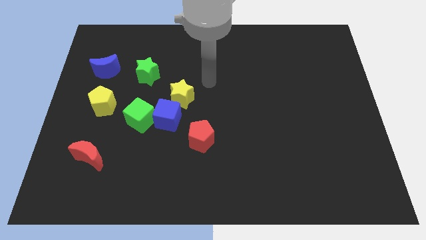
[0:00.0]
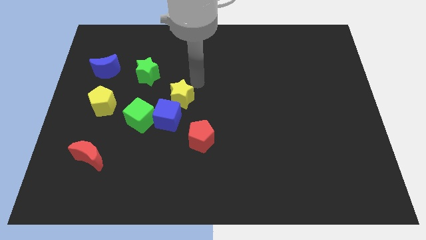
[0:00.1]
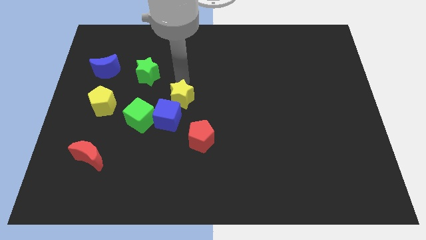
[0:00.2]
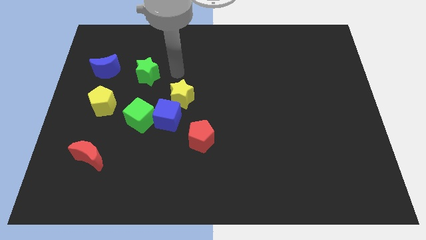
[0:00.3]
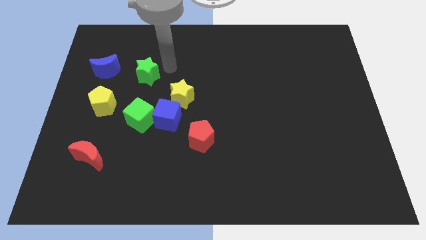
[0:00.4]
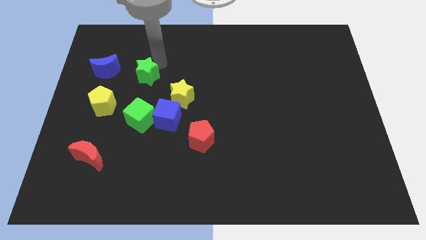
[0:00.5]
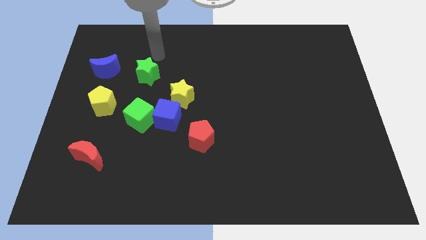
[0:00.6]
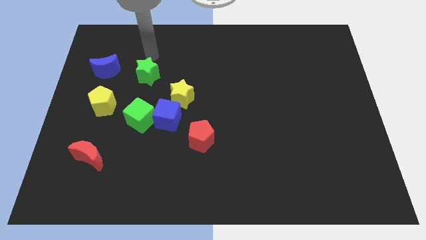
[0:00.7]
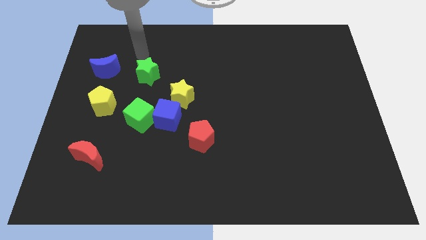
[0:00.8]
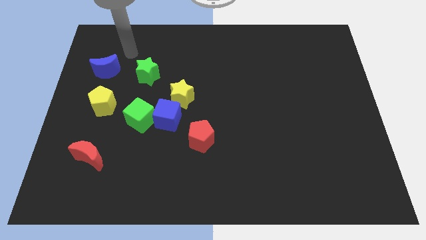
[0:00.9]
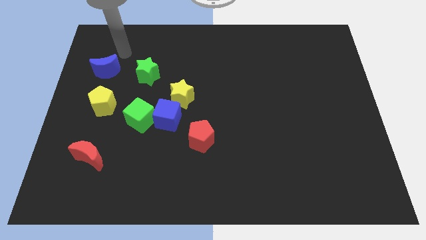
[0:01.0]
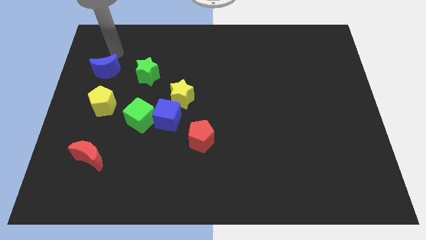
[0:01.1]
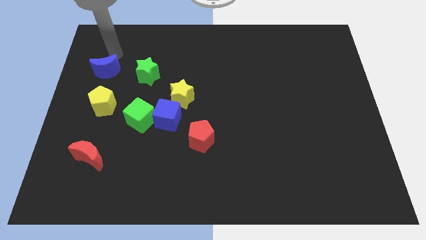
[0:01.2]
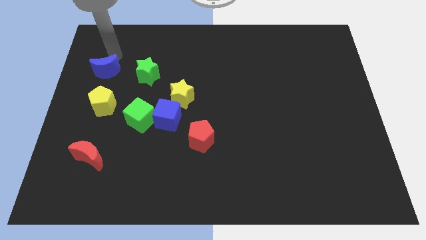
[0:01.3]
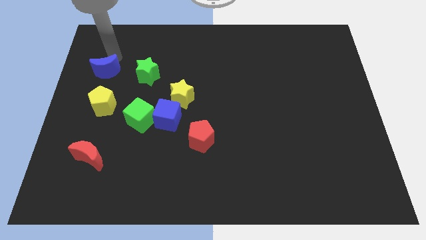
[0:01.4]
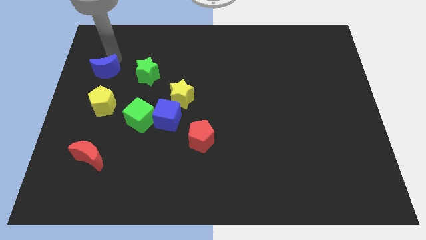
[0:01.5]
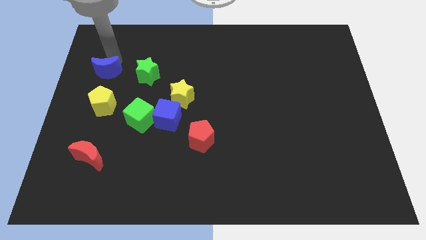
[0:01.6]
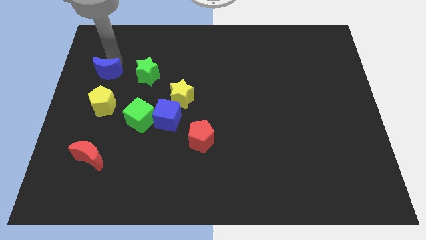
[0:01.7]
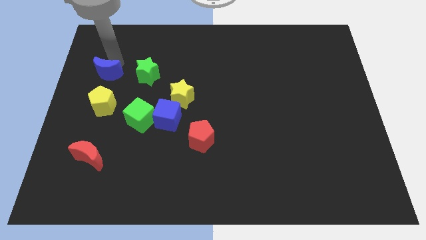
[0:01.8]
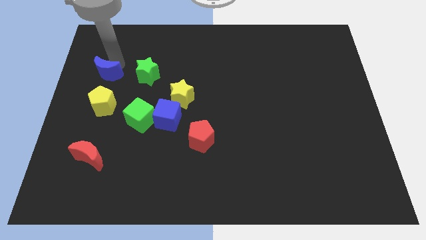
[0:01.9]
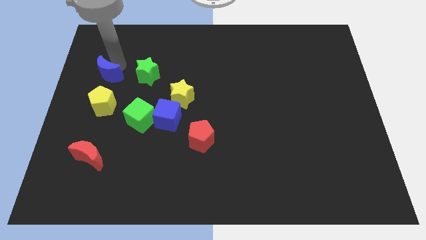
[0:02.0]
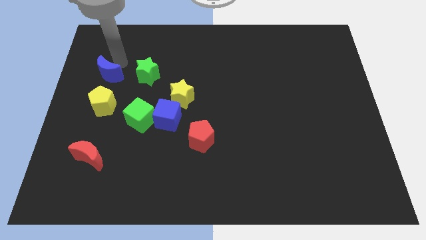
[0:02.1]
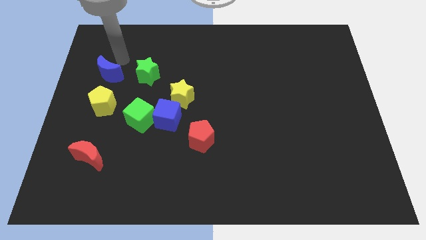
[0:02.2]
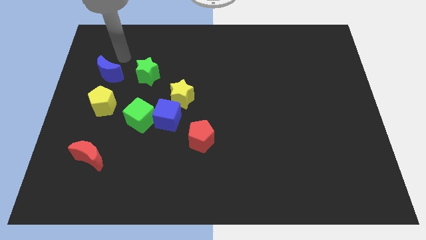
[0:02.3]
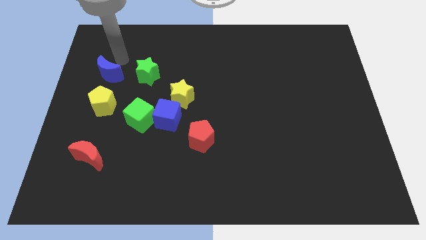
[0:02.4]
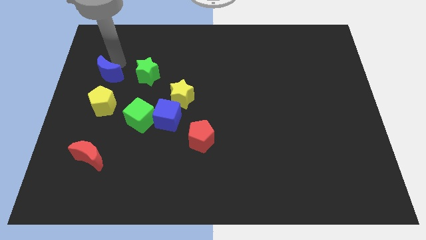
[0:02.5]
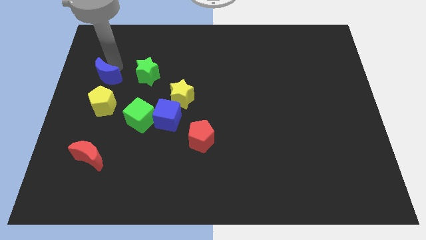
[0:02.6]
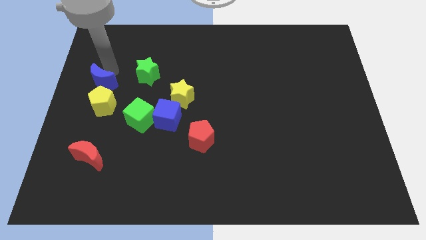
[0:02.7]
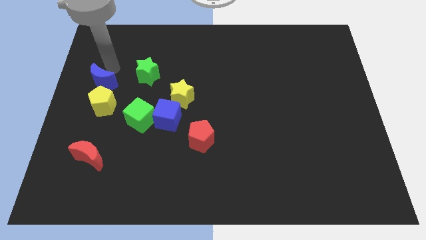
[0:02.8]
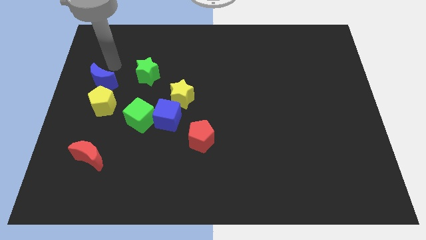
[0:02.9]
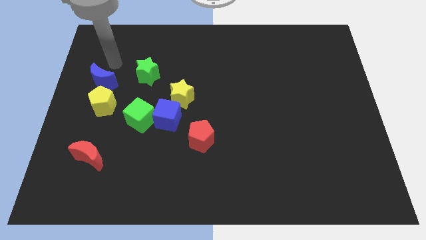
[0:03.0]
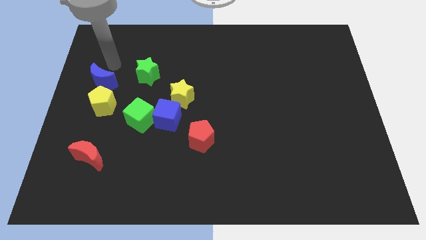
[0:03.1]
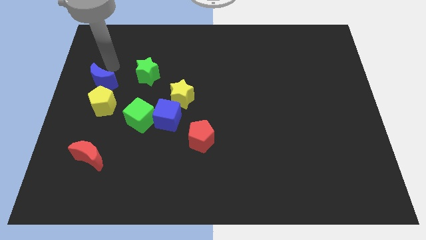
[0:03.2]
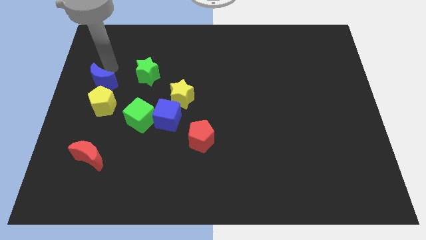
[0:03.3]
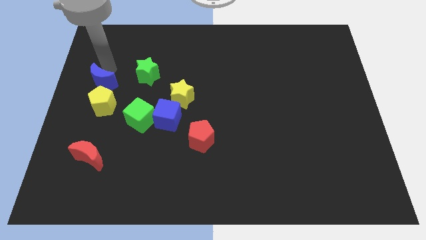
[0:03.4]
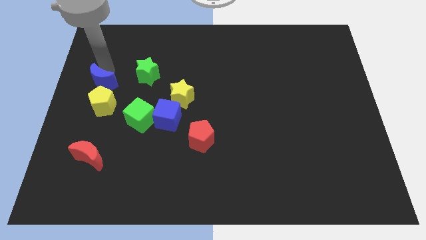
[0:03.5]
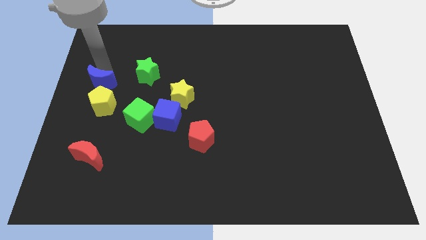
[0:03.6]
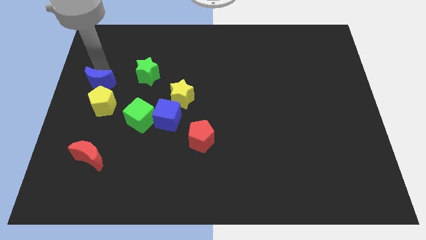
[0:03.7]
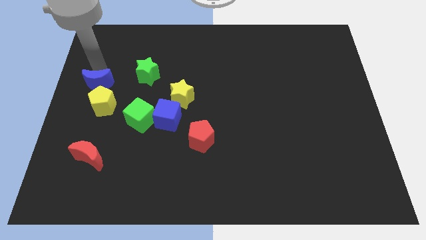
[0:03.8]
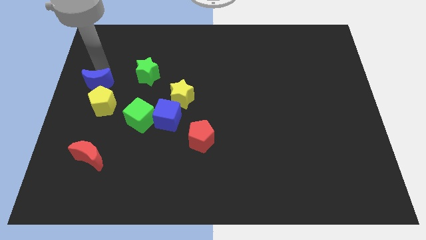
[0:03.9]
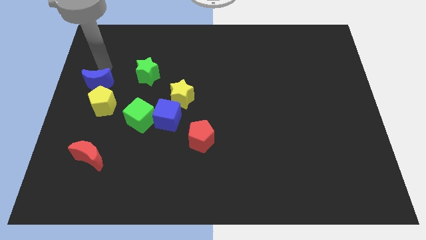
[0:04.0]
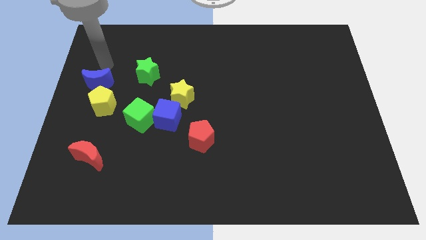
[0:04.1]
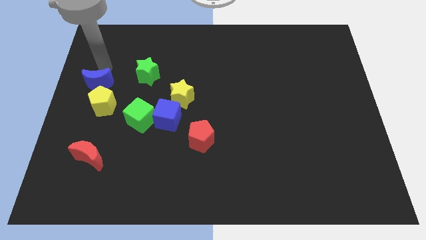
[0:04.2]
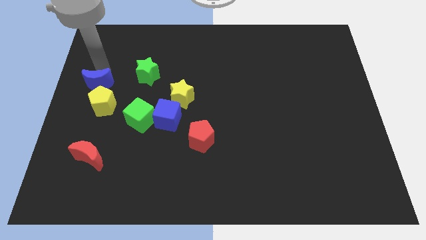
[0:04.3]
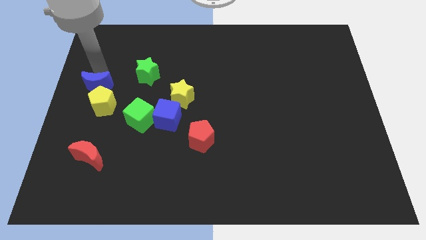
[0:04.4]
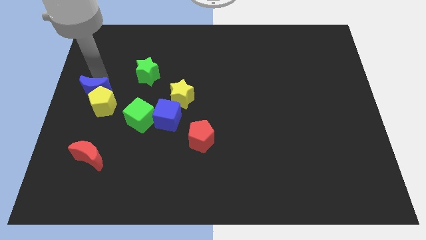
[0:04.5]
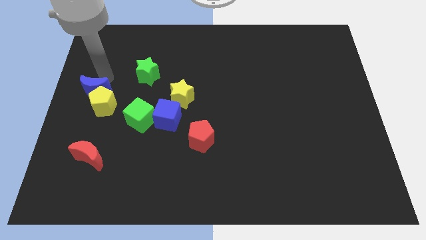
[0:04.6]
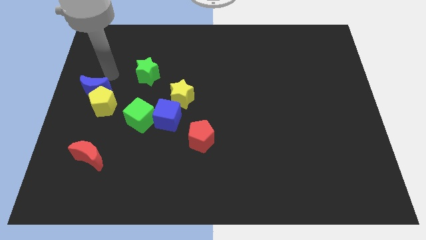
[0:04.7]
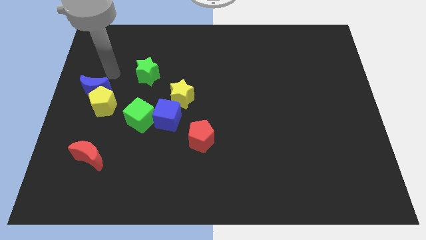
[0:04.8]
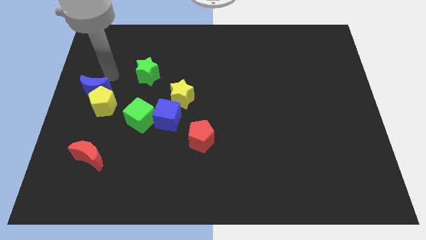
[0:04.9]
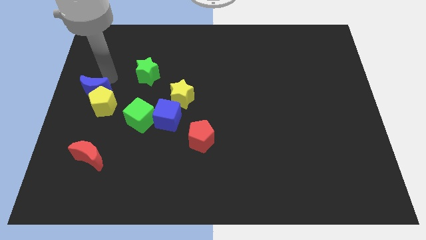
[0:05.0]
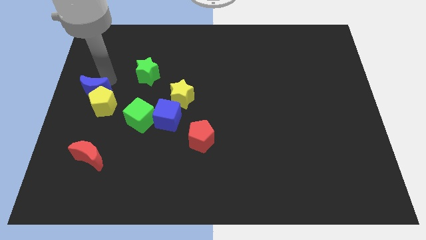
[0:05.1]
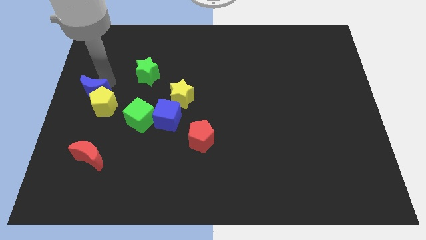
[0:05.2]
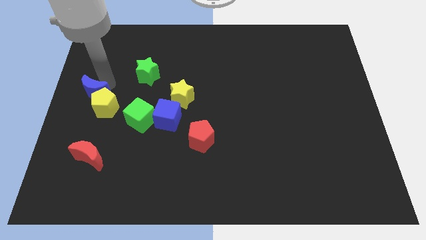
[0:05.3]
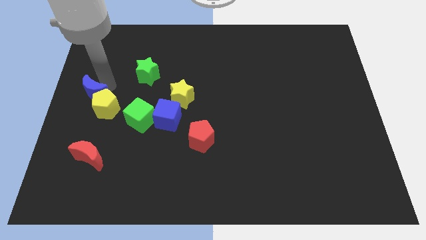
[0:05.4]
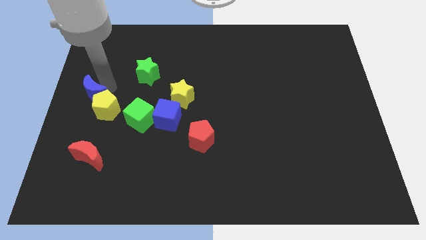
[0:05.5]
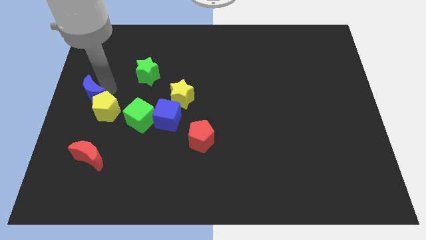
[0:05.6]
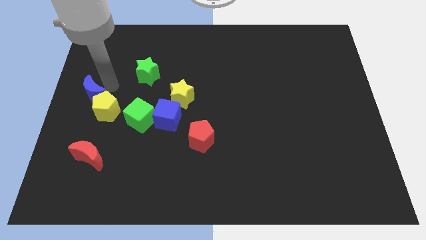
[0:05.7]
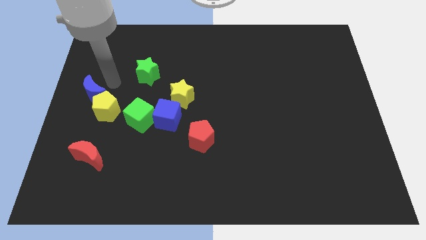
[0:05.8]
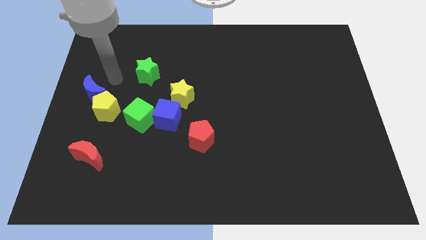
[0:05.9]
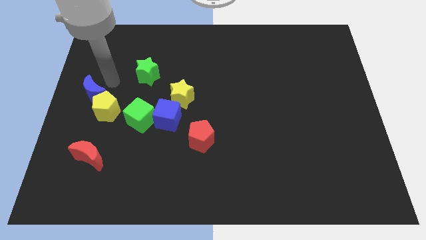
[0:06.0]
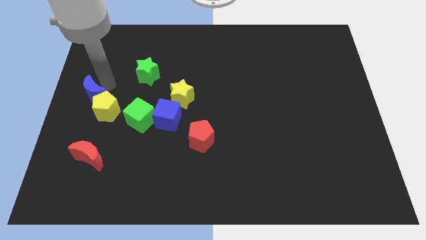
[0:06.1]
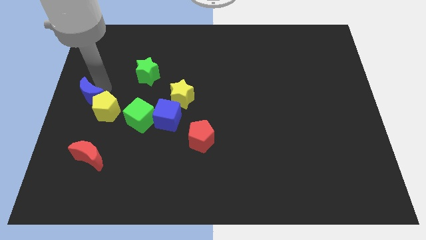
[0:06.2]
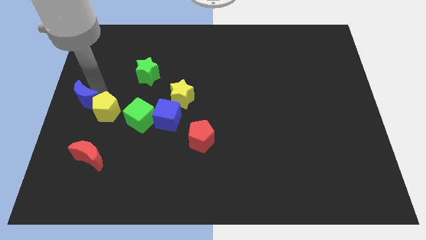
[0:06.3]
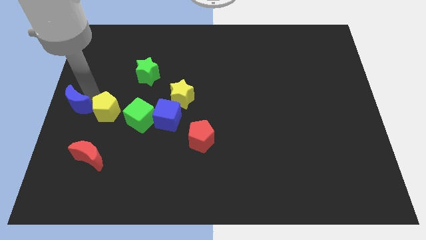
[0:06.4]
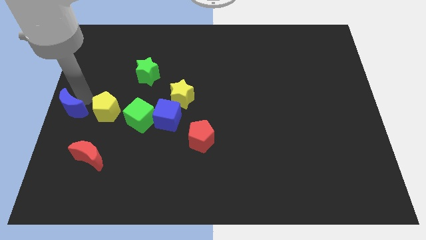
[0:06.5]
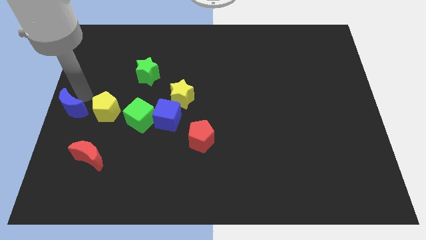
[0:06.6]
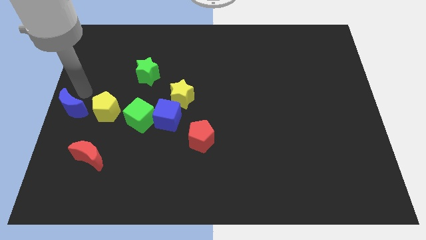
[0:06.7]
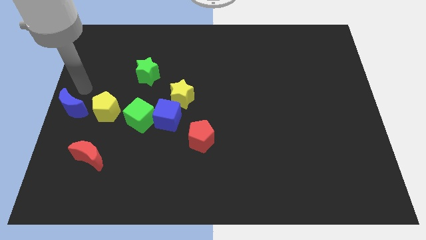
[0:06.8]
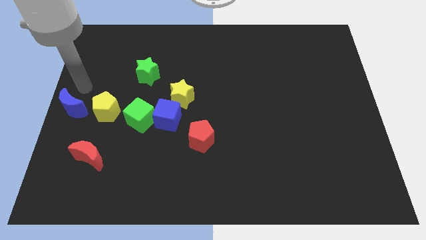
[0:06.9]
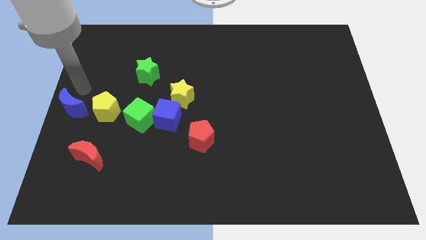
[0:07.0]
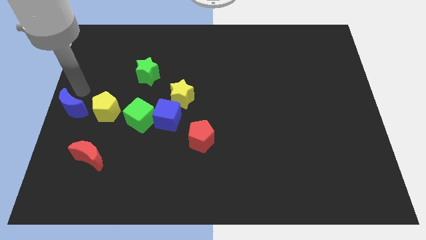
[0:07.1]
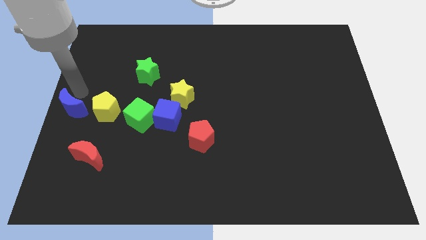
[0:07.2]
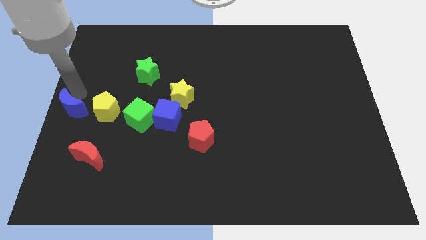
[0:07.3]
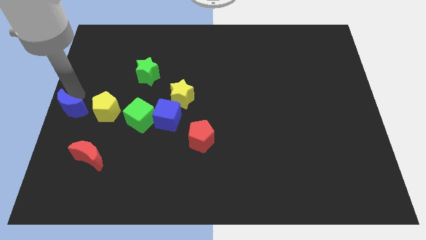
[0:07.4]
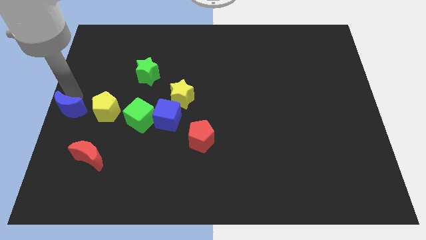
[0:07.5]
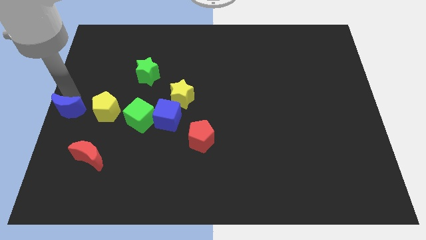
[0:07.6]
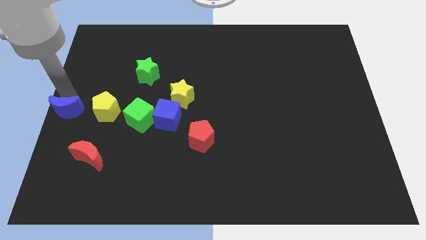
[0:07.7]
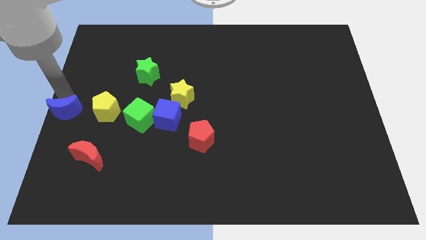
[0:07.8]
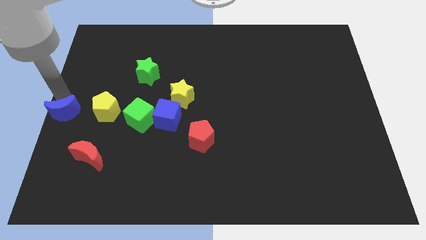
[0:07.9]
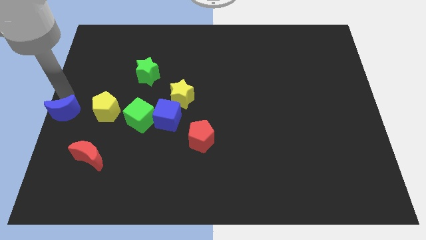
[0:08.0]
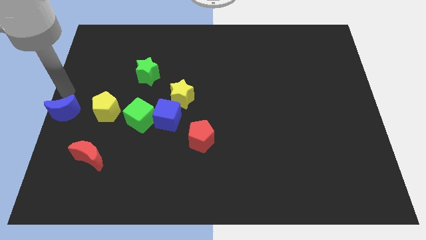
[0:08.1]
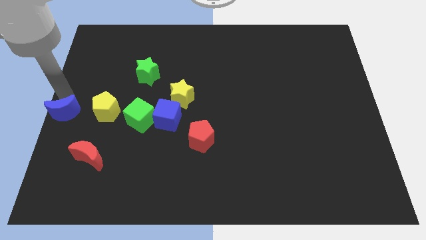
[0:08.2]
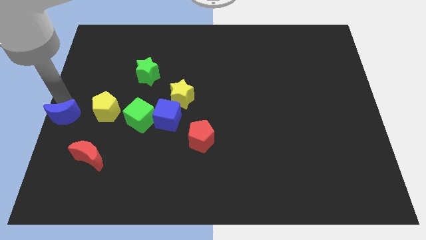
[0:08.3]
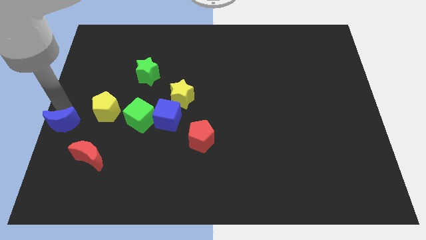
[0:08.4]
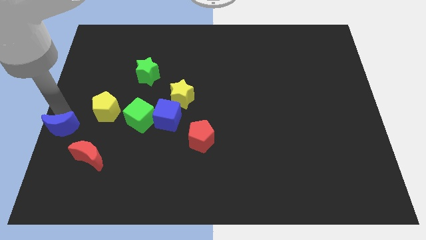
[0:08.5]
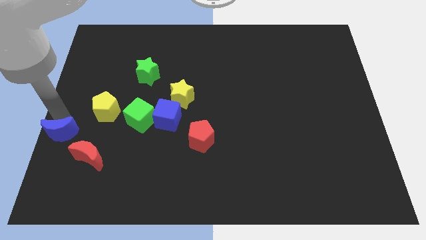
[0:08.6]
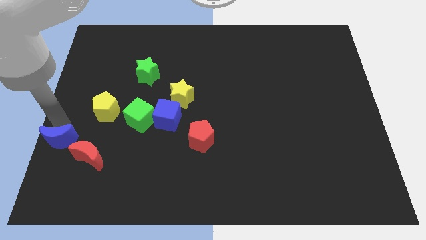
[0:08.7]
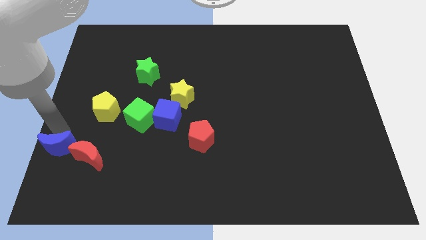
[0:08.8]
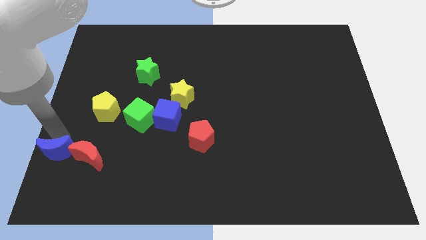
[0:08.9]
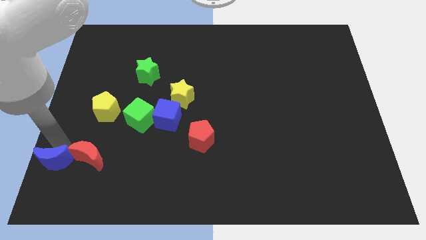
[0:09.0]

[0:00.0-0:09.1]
put the blue moon to the bottom left
